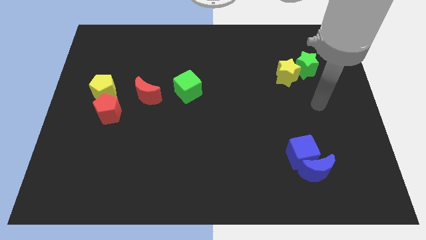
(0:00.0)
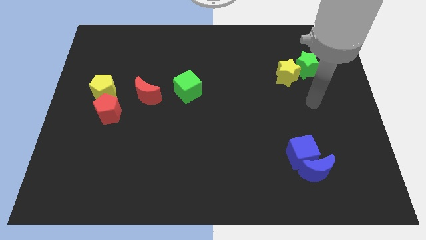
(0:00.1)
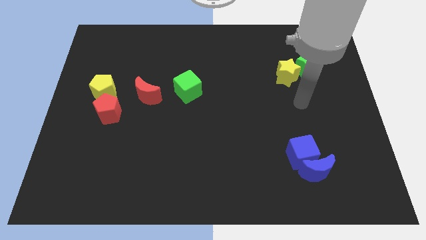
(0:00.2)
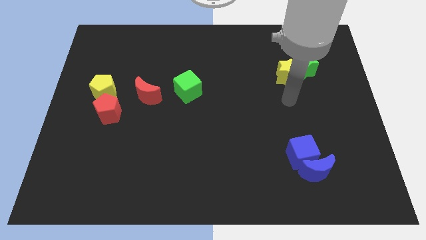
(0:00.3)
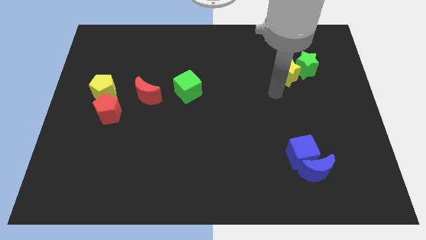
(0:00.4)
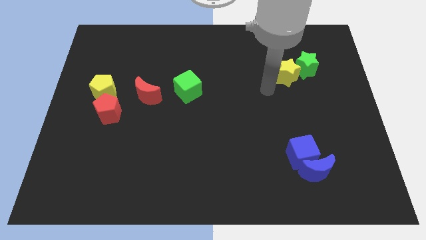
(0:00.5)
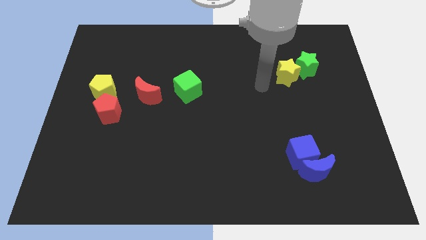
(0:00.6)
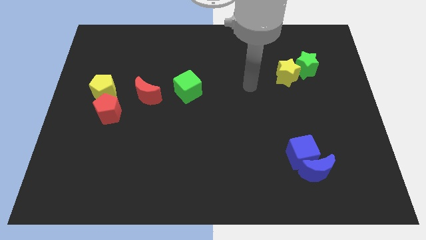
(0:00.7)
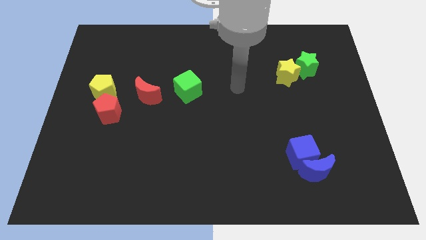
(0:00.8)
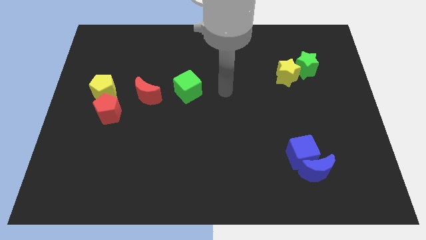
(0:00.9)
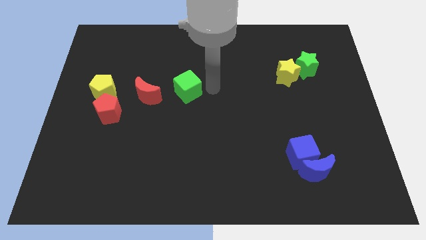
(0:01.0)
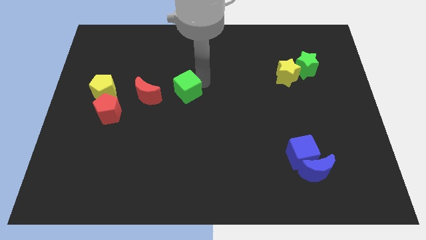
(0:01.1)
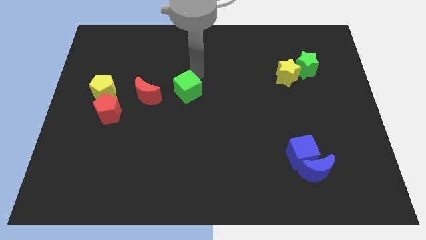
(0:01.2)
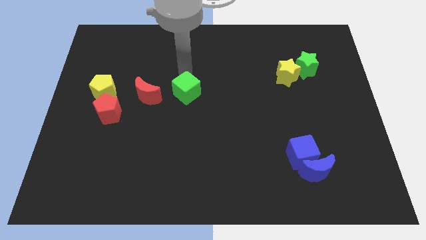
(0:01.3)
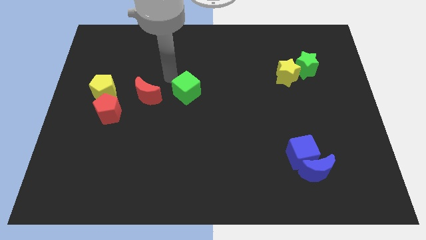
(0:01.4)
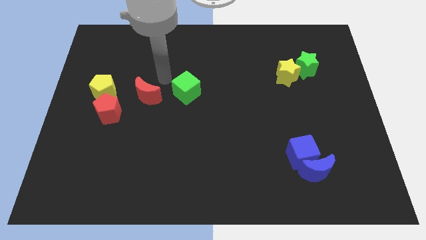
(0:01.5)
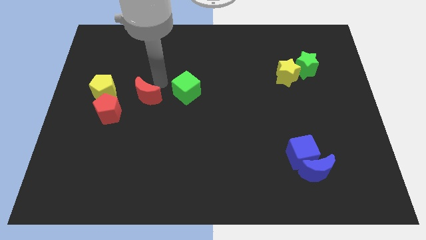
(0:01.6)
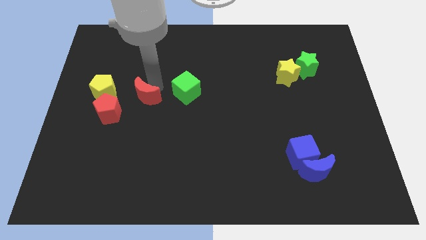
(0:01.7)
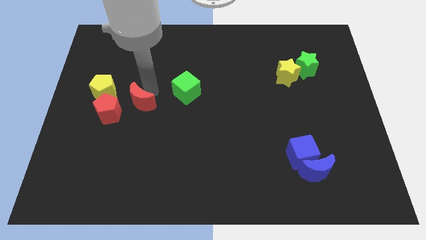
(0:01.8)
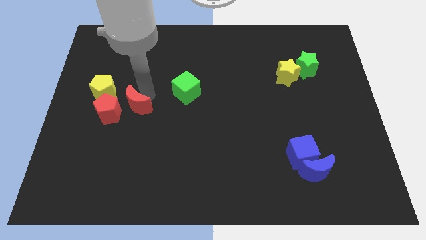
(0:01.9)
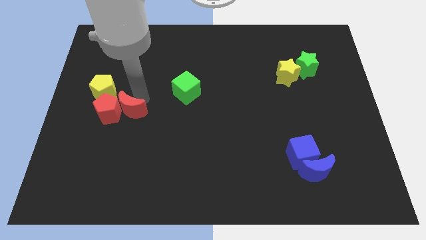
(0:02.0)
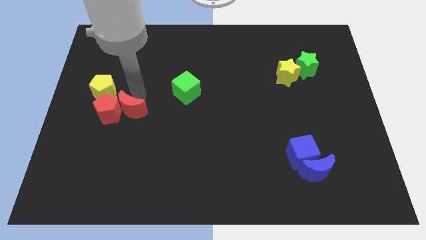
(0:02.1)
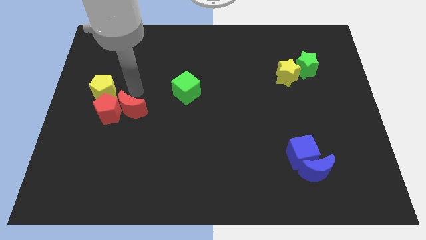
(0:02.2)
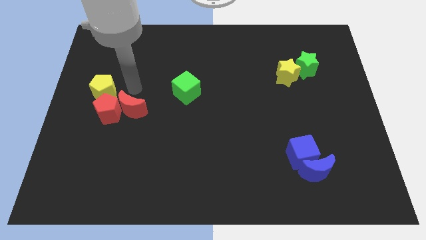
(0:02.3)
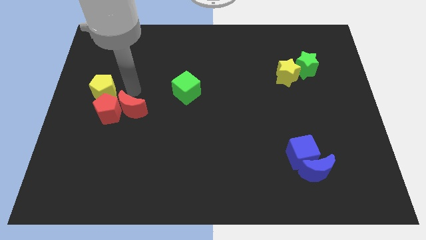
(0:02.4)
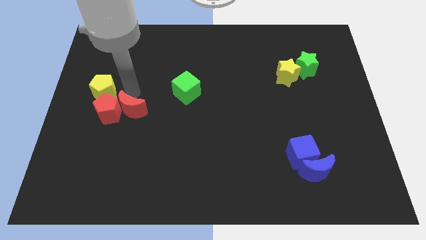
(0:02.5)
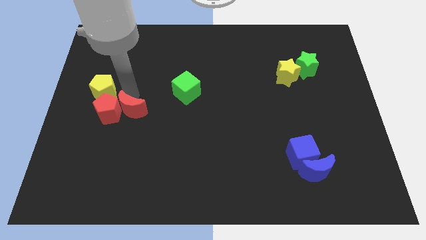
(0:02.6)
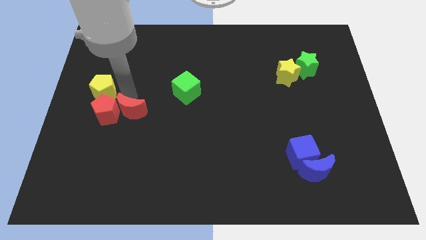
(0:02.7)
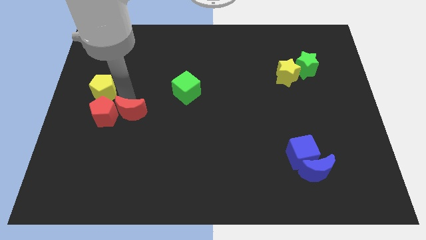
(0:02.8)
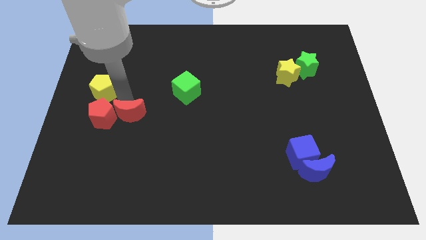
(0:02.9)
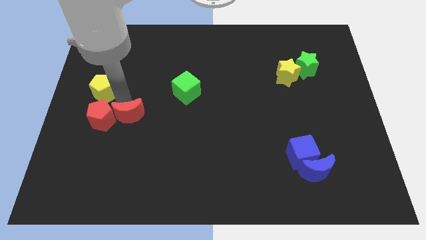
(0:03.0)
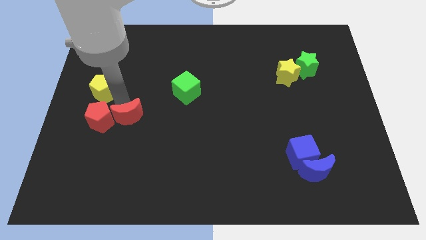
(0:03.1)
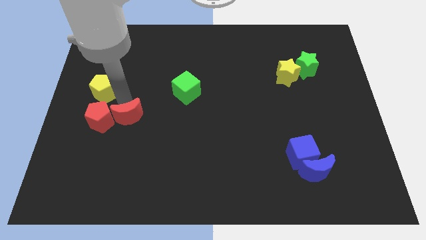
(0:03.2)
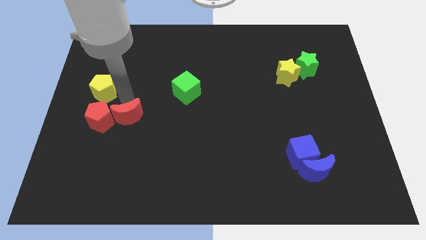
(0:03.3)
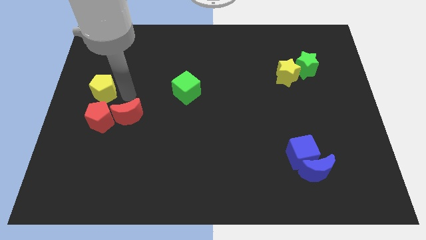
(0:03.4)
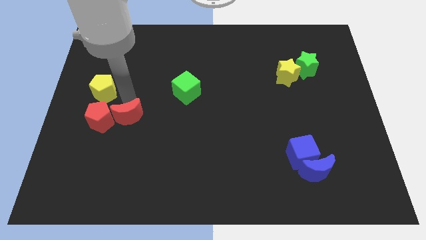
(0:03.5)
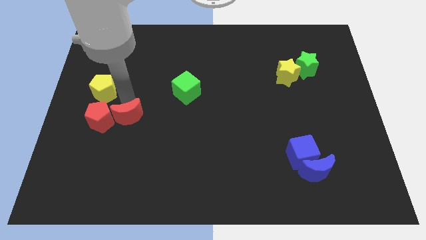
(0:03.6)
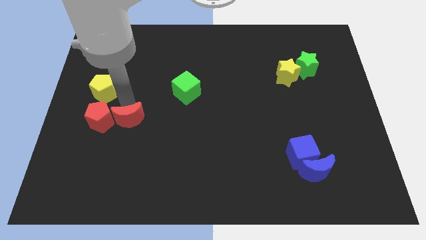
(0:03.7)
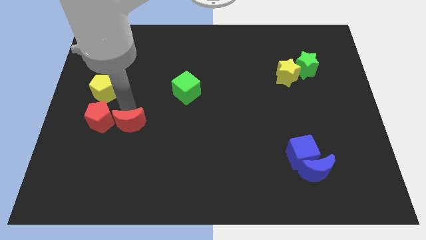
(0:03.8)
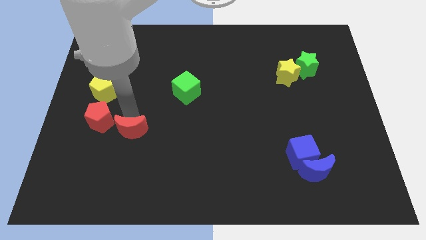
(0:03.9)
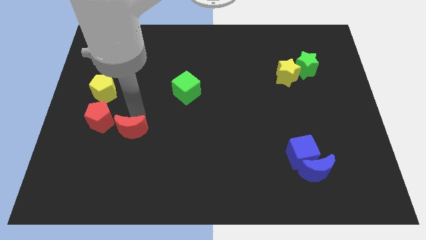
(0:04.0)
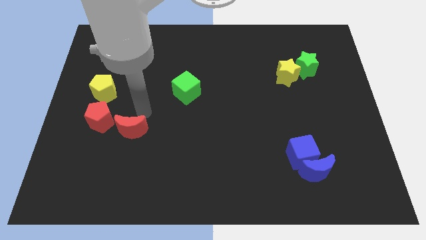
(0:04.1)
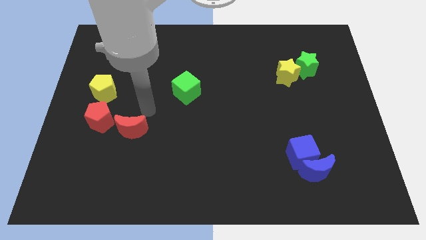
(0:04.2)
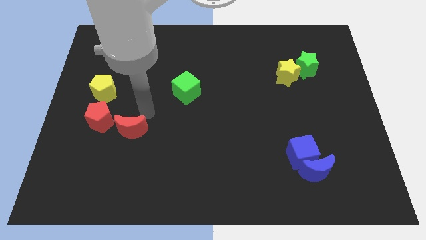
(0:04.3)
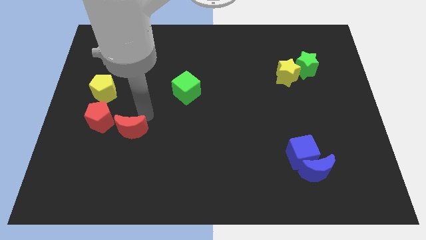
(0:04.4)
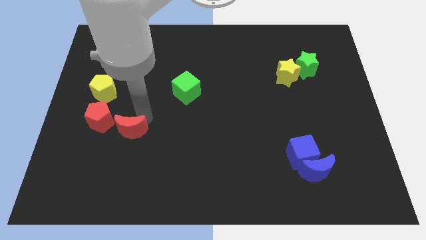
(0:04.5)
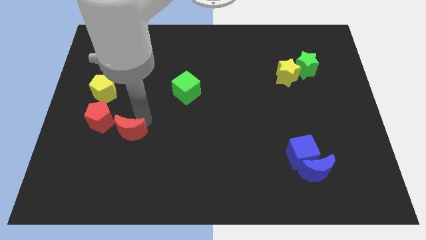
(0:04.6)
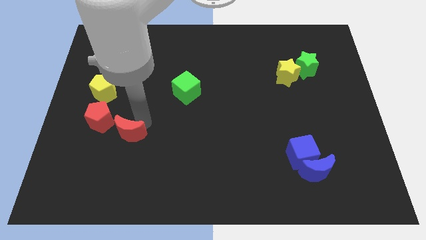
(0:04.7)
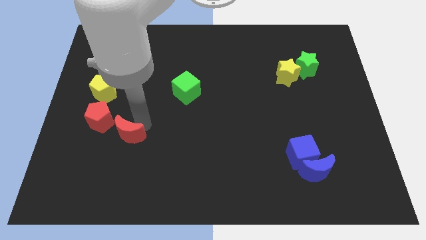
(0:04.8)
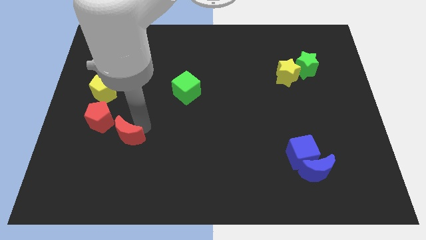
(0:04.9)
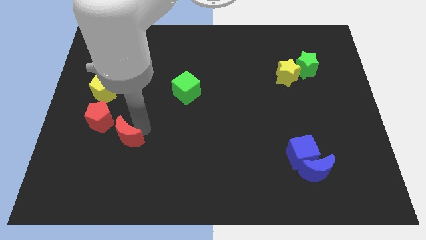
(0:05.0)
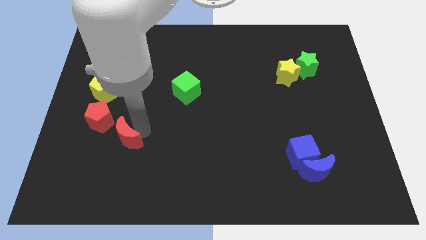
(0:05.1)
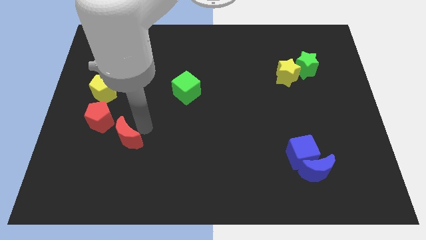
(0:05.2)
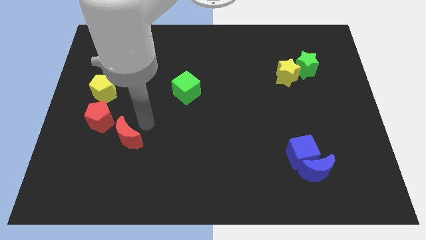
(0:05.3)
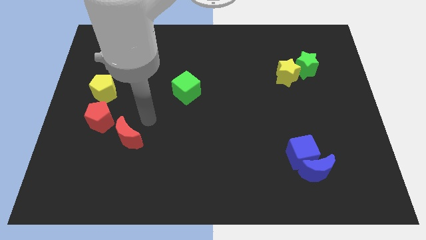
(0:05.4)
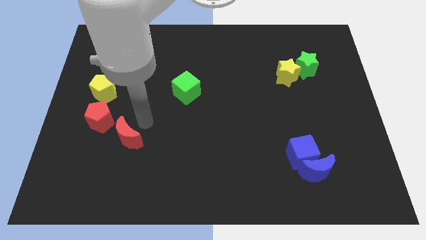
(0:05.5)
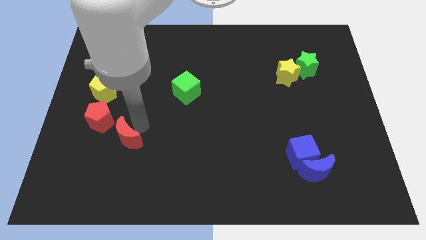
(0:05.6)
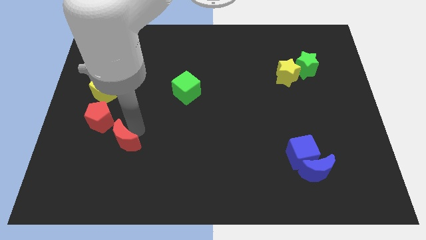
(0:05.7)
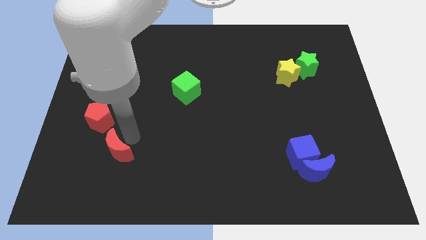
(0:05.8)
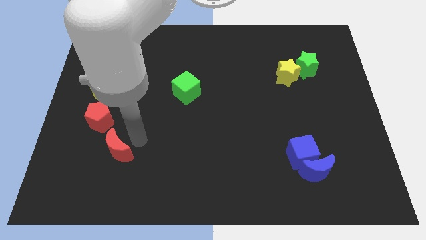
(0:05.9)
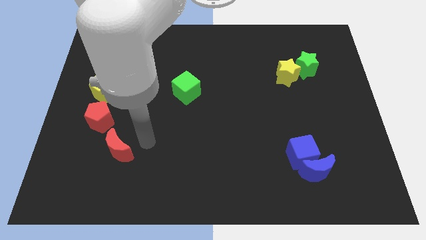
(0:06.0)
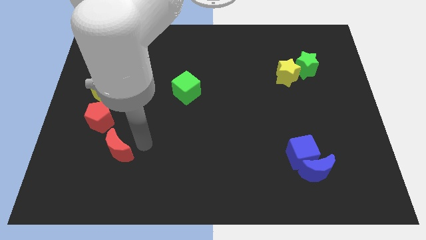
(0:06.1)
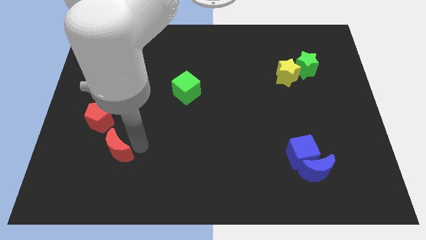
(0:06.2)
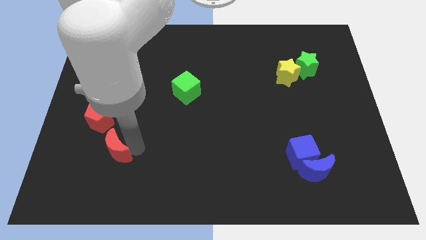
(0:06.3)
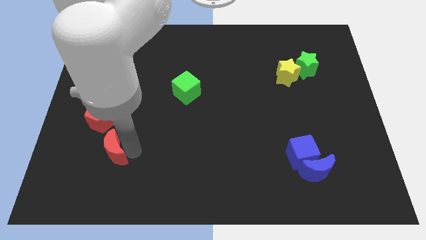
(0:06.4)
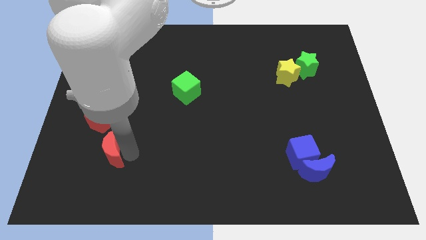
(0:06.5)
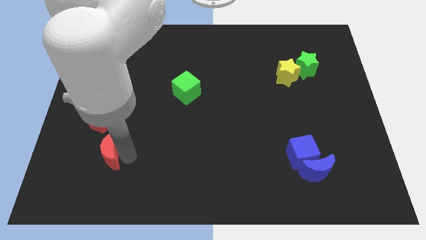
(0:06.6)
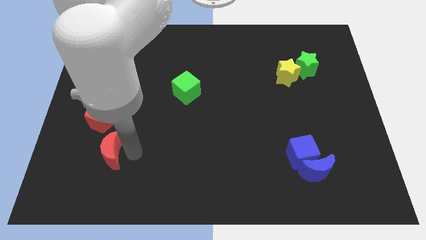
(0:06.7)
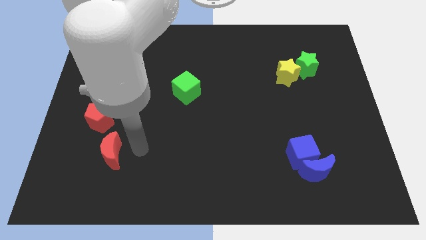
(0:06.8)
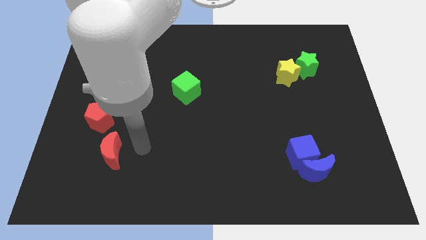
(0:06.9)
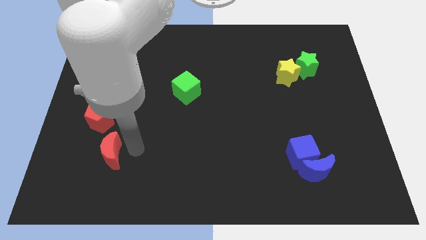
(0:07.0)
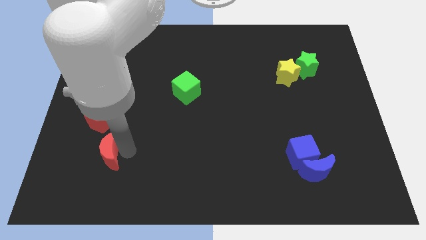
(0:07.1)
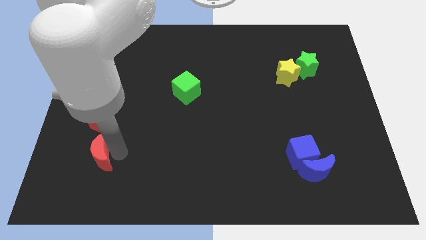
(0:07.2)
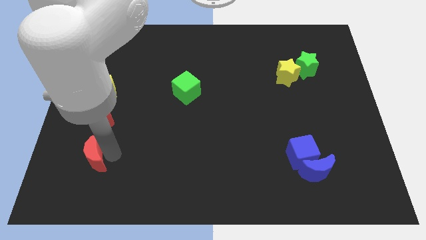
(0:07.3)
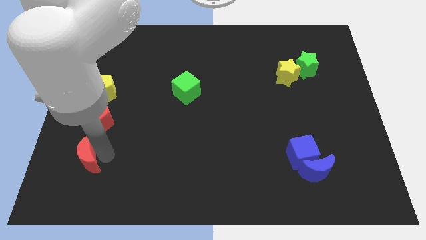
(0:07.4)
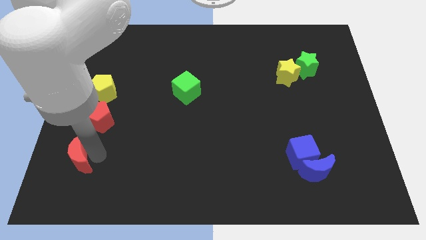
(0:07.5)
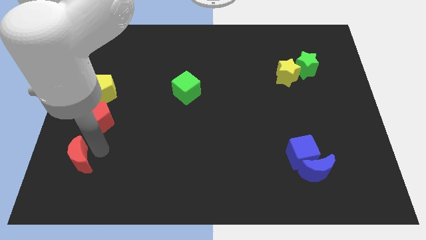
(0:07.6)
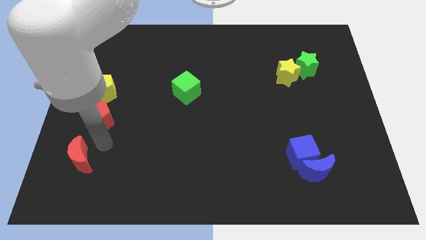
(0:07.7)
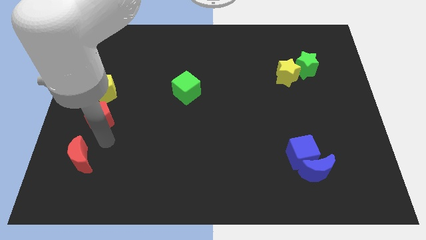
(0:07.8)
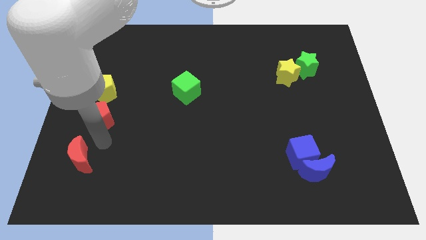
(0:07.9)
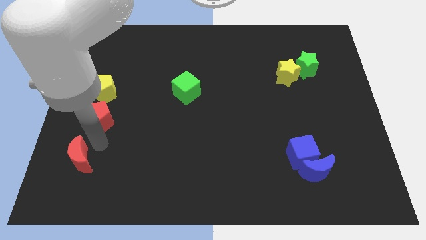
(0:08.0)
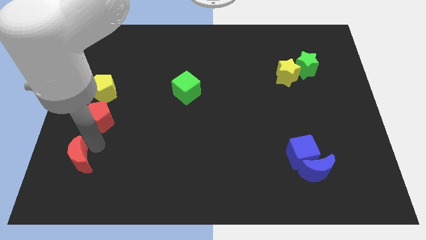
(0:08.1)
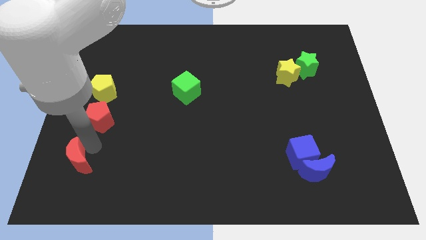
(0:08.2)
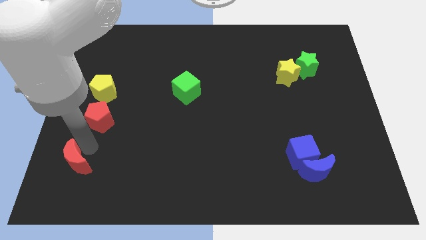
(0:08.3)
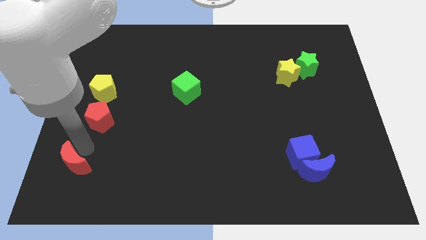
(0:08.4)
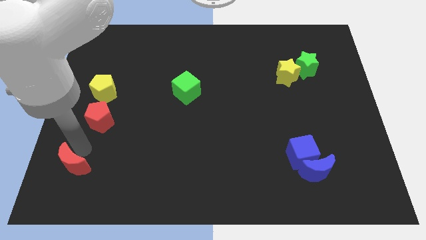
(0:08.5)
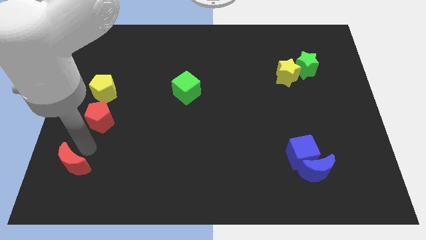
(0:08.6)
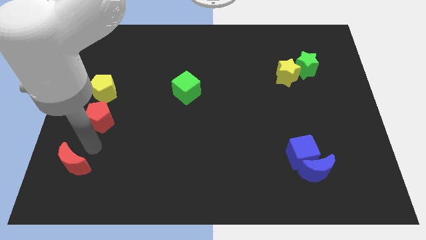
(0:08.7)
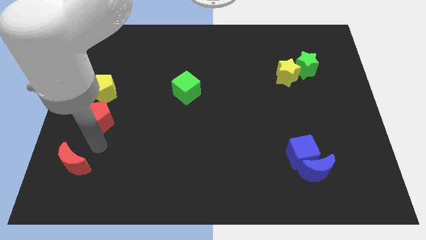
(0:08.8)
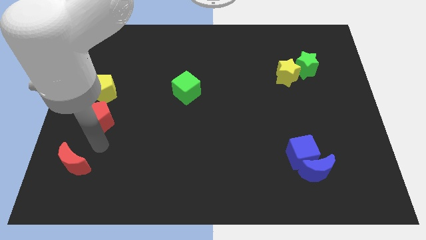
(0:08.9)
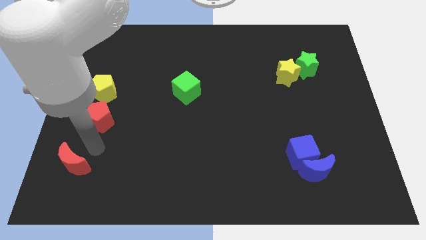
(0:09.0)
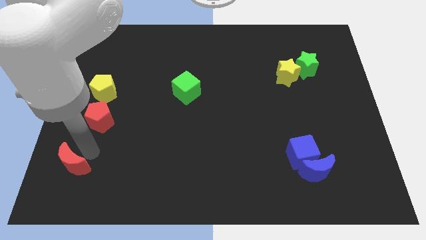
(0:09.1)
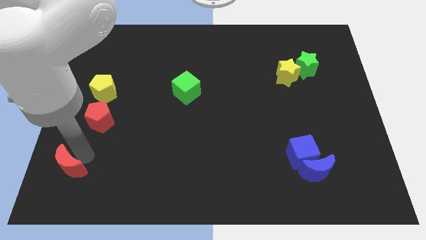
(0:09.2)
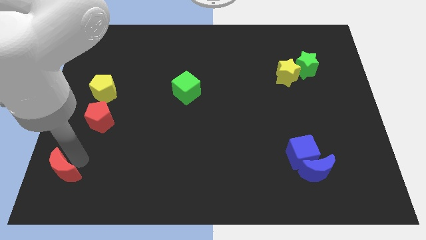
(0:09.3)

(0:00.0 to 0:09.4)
slide the red moon to the bottom left corner
